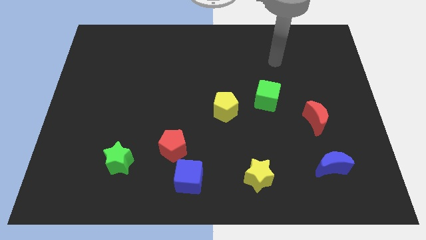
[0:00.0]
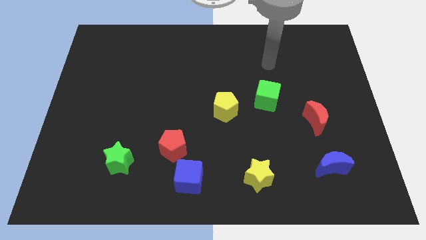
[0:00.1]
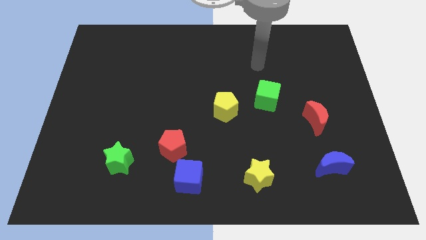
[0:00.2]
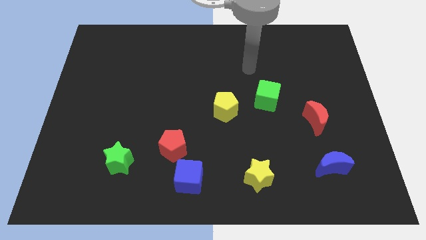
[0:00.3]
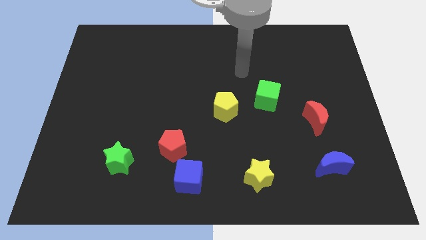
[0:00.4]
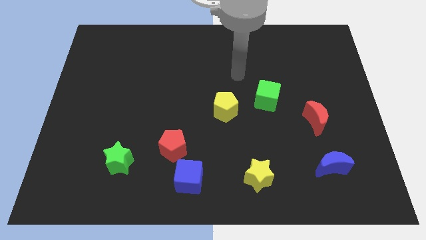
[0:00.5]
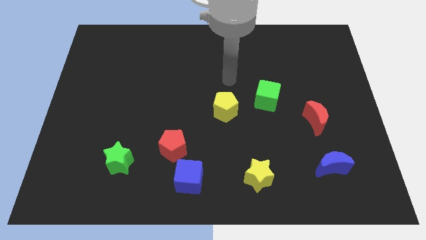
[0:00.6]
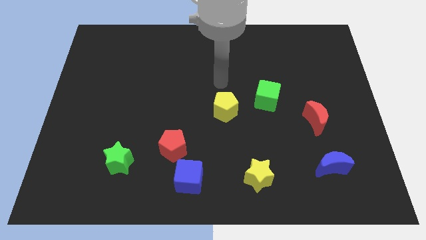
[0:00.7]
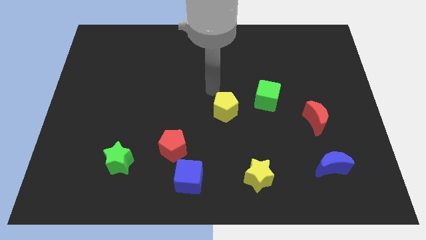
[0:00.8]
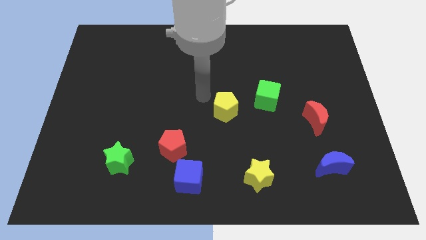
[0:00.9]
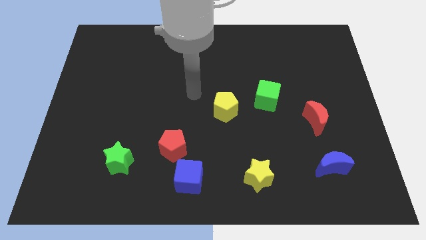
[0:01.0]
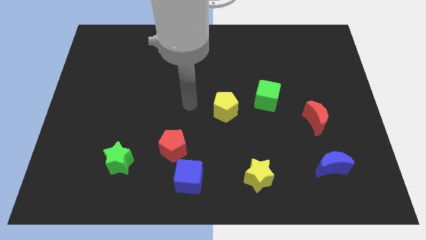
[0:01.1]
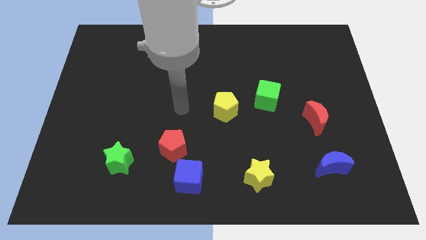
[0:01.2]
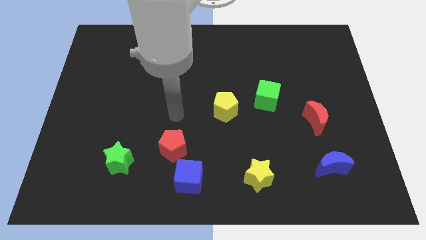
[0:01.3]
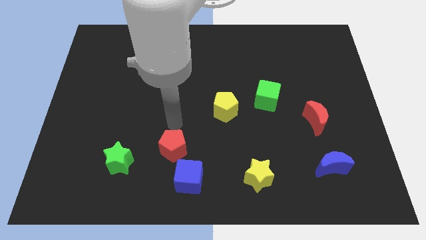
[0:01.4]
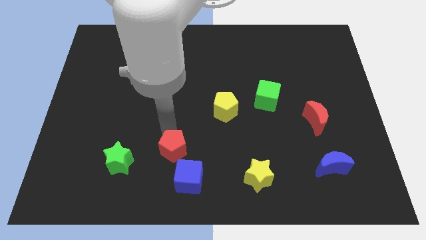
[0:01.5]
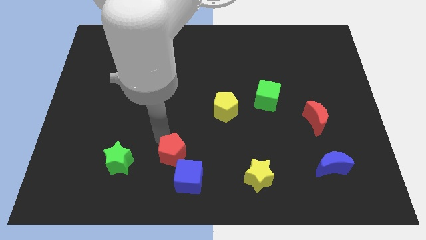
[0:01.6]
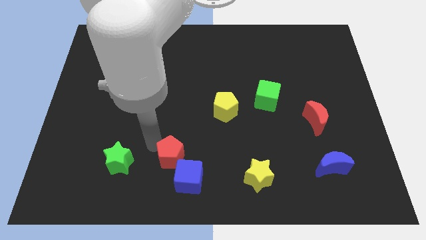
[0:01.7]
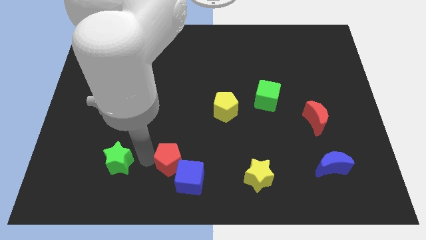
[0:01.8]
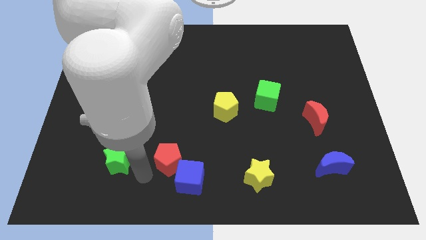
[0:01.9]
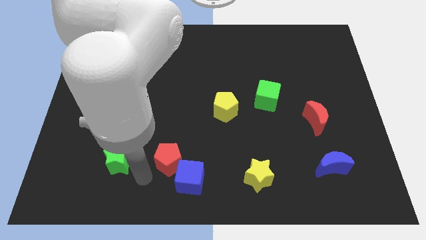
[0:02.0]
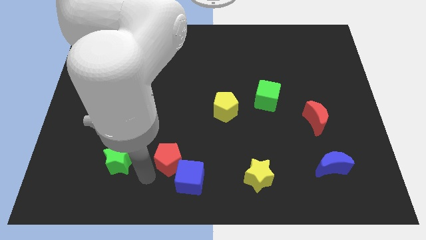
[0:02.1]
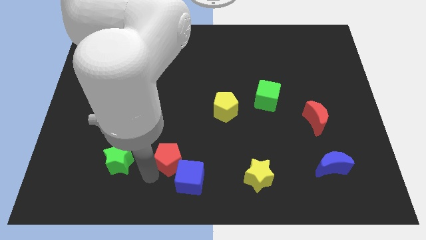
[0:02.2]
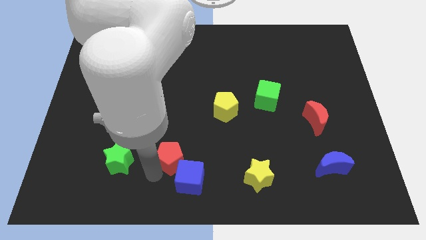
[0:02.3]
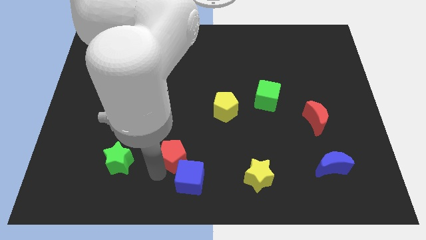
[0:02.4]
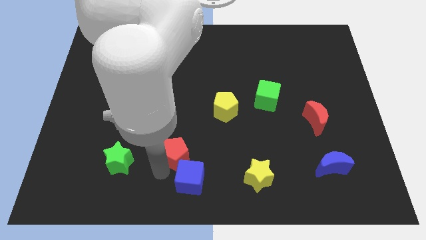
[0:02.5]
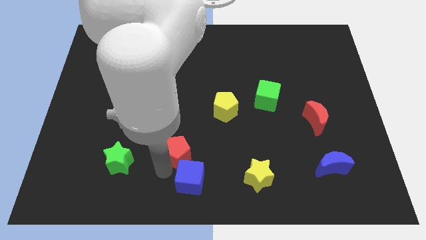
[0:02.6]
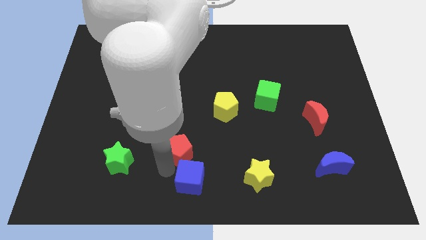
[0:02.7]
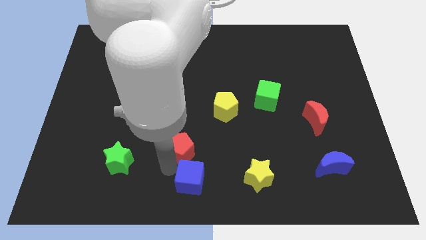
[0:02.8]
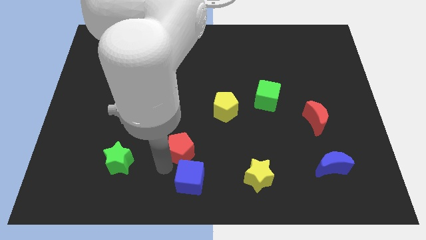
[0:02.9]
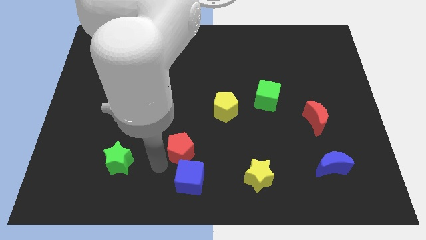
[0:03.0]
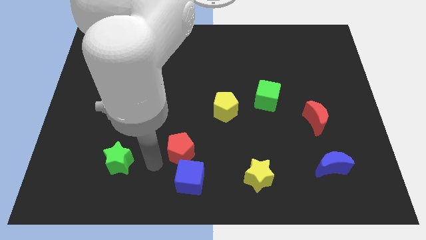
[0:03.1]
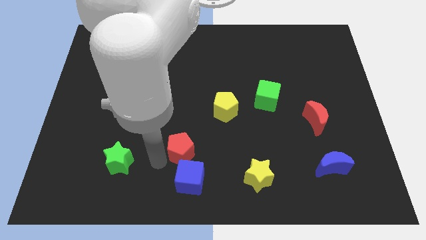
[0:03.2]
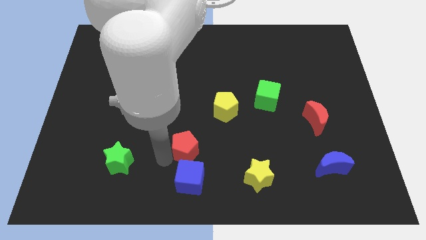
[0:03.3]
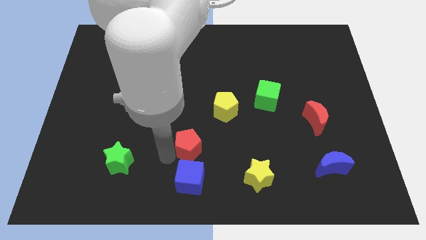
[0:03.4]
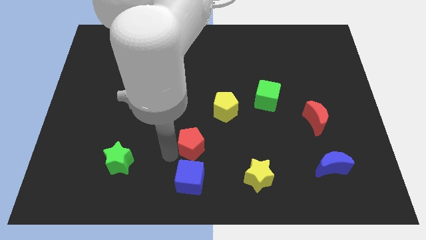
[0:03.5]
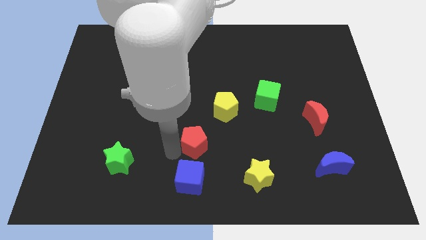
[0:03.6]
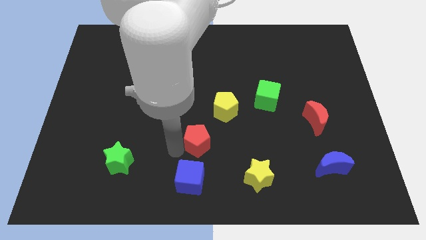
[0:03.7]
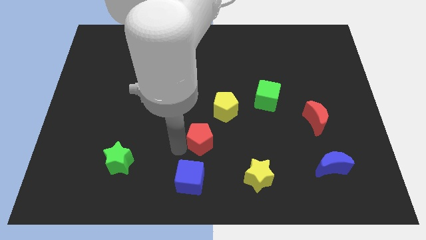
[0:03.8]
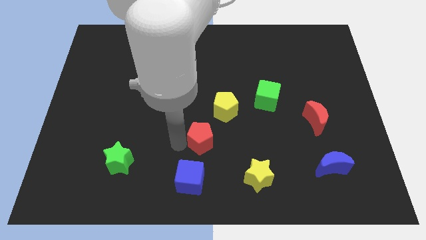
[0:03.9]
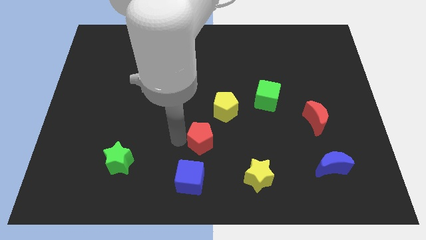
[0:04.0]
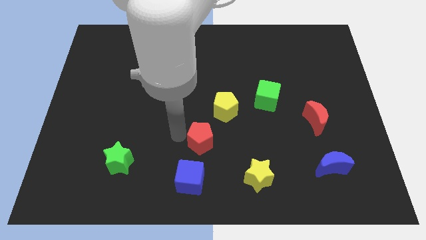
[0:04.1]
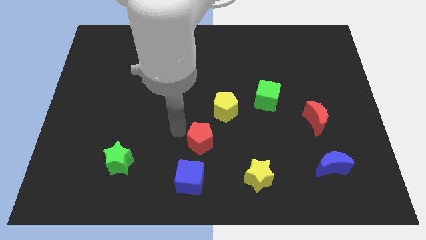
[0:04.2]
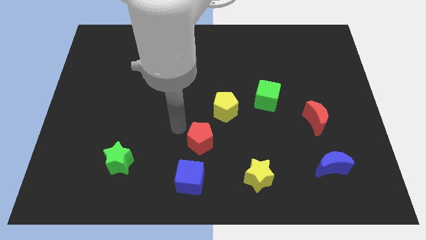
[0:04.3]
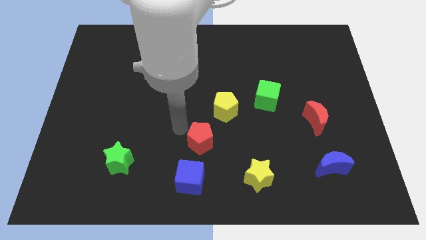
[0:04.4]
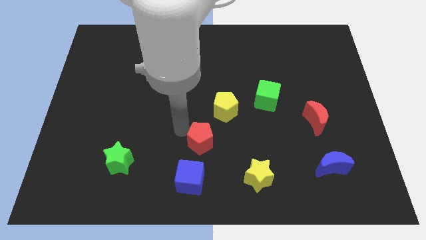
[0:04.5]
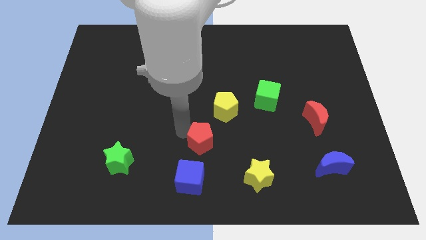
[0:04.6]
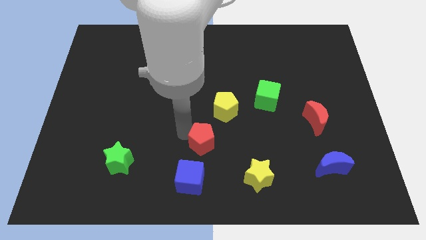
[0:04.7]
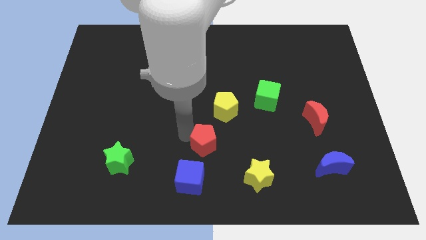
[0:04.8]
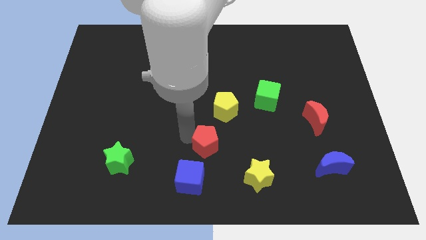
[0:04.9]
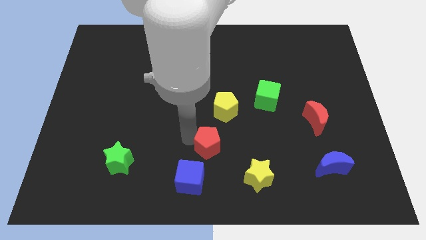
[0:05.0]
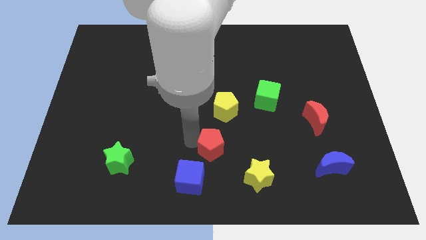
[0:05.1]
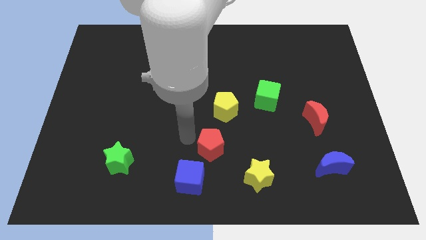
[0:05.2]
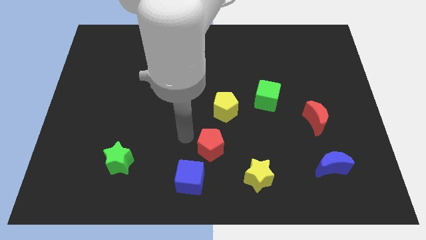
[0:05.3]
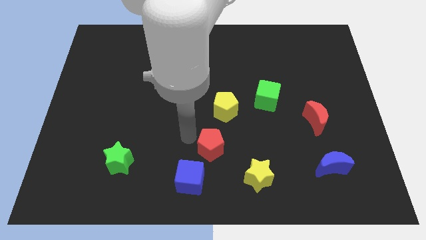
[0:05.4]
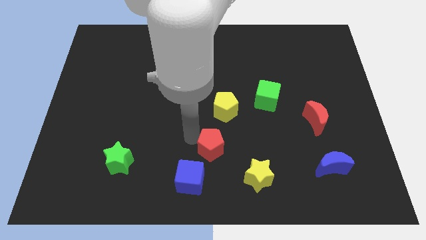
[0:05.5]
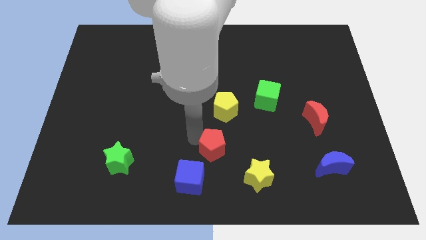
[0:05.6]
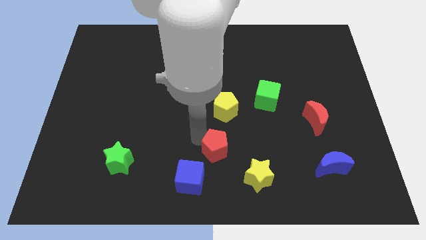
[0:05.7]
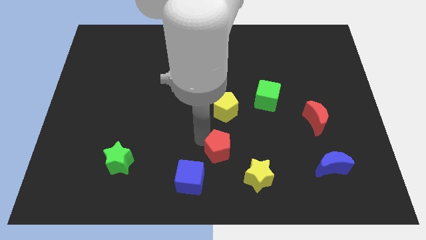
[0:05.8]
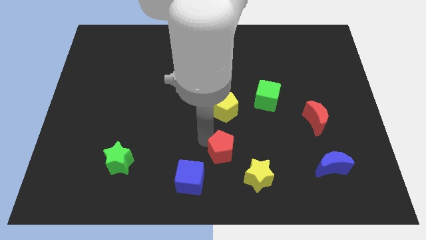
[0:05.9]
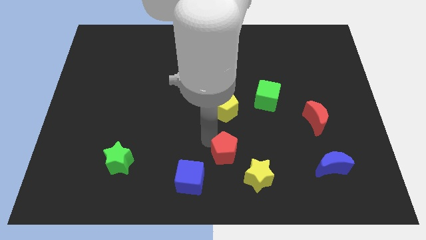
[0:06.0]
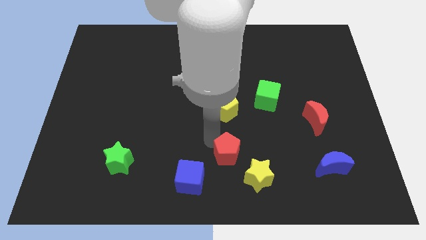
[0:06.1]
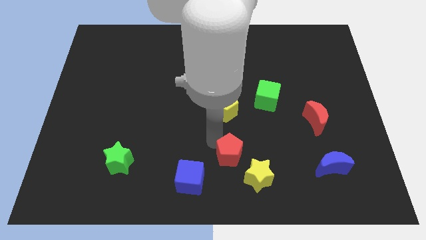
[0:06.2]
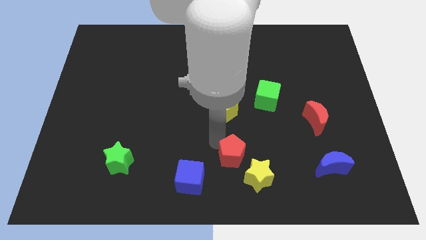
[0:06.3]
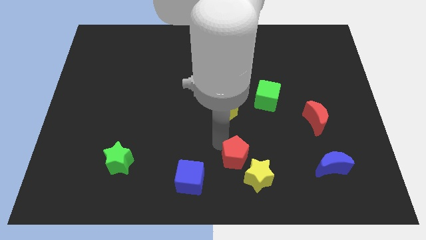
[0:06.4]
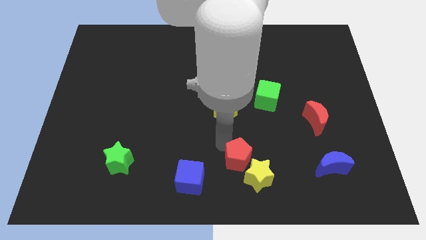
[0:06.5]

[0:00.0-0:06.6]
slide the red pentagon to the yellow star

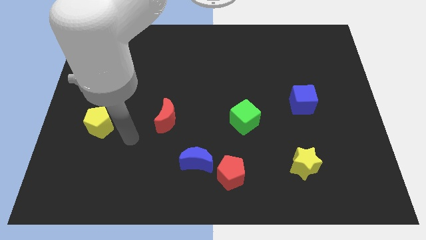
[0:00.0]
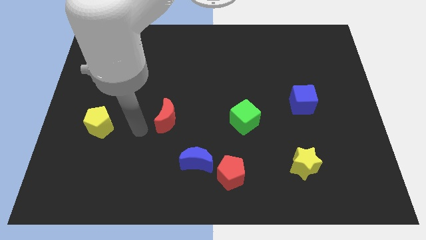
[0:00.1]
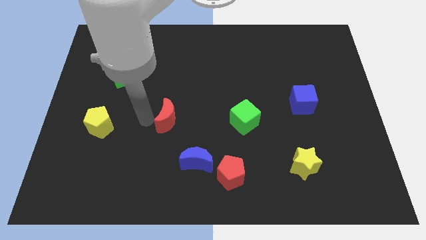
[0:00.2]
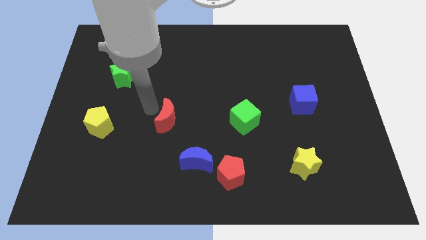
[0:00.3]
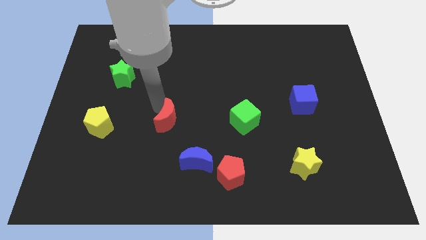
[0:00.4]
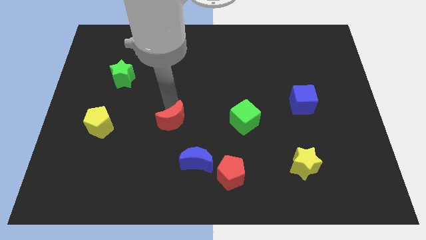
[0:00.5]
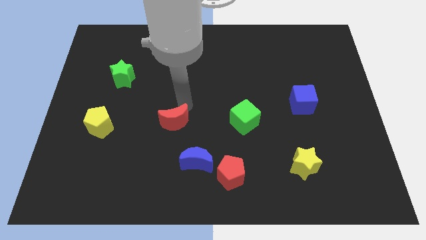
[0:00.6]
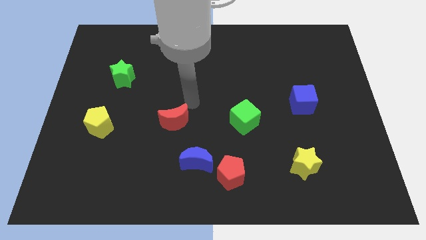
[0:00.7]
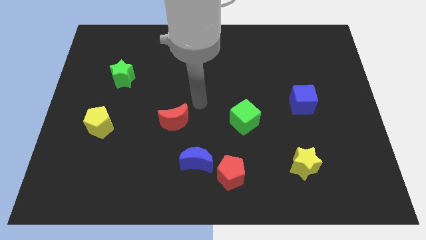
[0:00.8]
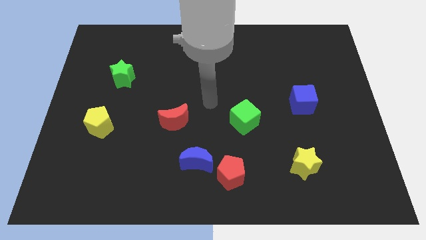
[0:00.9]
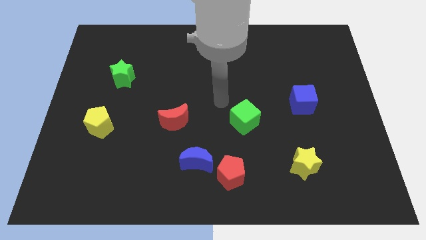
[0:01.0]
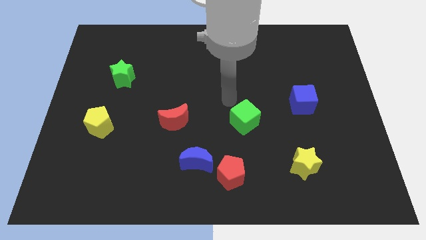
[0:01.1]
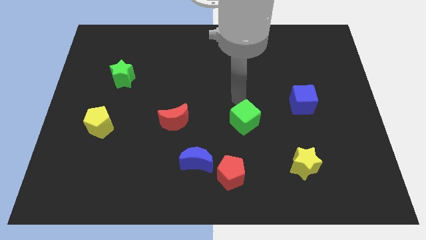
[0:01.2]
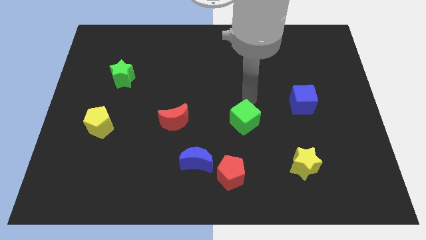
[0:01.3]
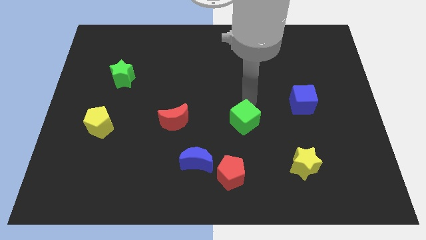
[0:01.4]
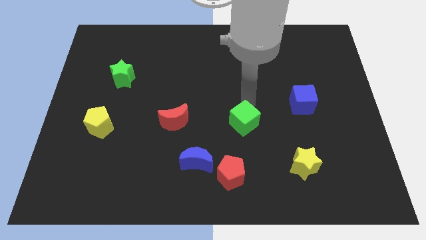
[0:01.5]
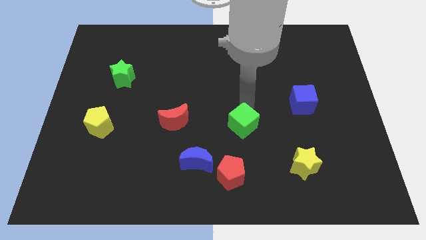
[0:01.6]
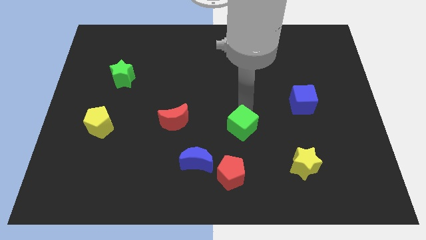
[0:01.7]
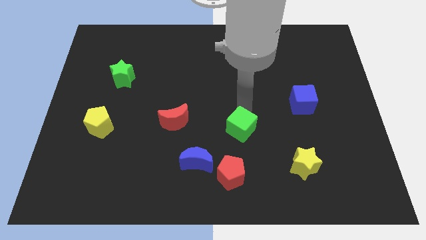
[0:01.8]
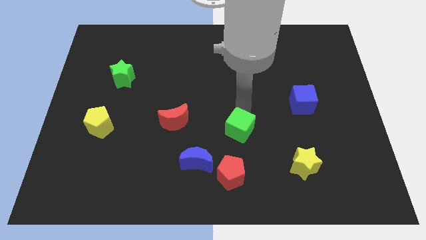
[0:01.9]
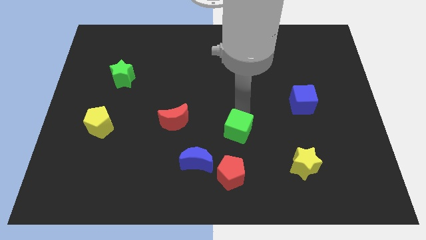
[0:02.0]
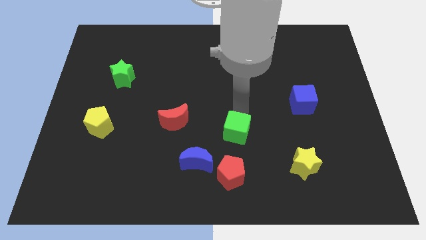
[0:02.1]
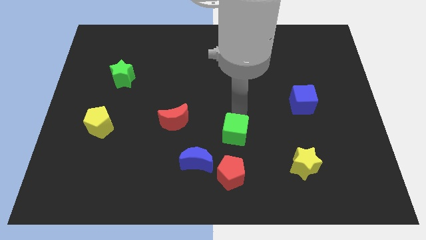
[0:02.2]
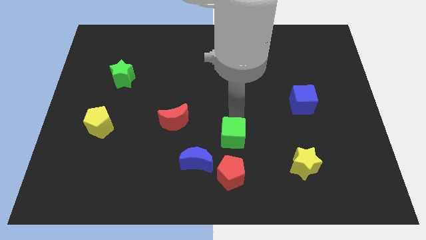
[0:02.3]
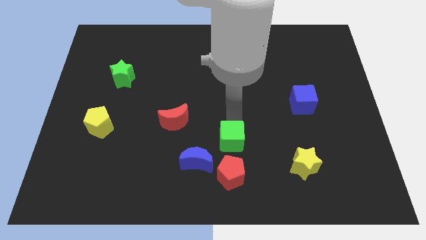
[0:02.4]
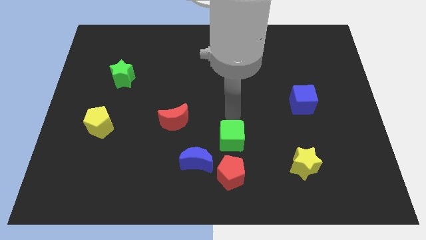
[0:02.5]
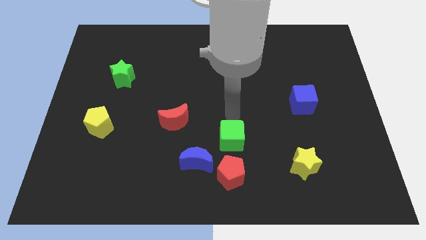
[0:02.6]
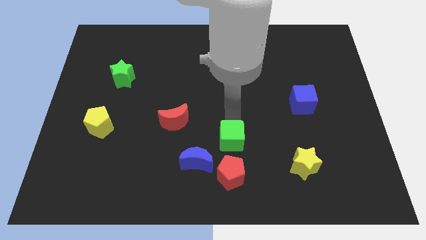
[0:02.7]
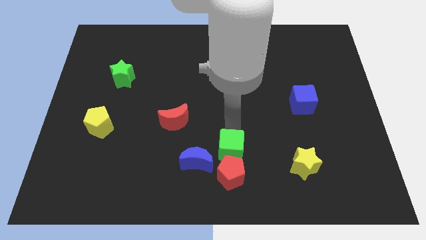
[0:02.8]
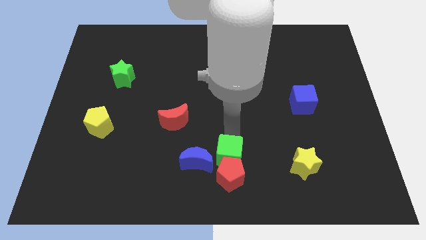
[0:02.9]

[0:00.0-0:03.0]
move the green cube next to the red pentagon
